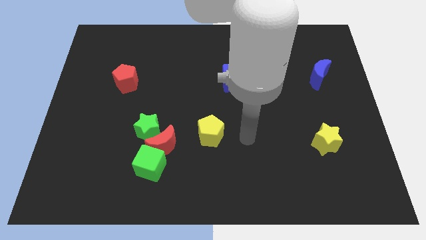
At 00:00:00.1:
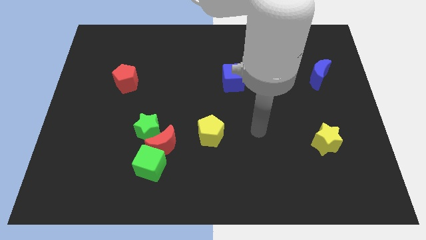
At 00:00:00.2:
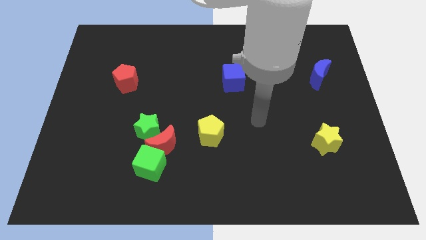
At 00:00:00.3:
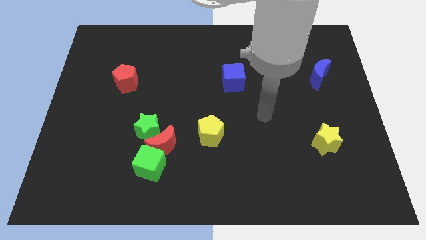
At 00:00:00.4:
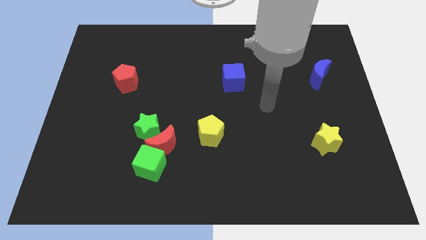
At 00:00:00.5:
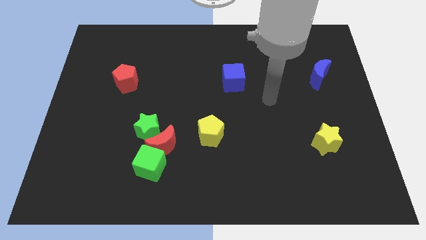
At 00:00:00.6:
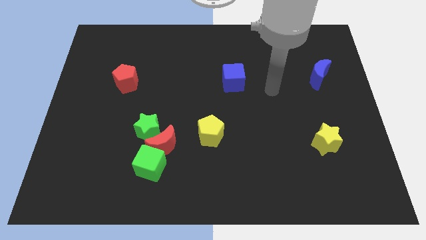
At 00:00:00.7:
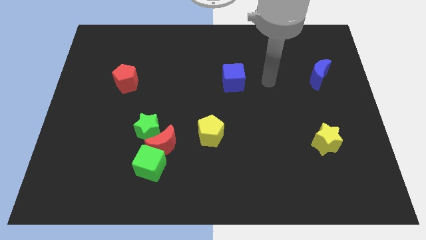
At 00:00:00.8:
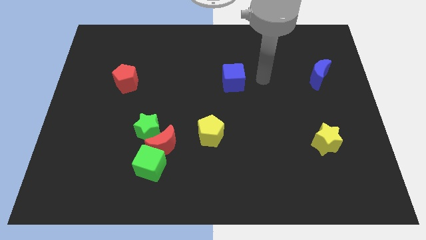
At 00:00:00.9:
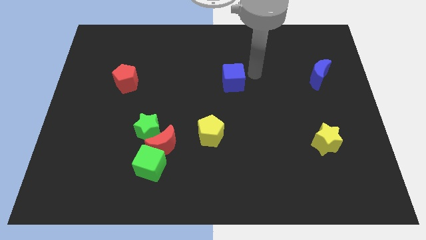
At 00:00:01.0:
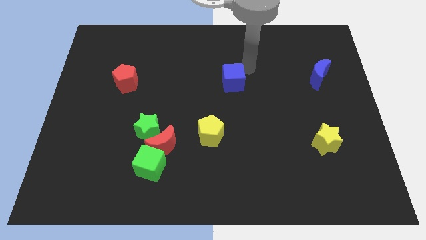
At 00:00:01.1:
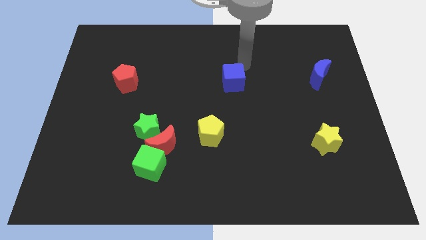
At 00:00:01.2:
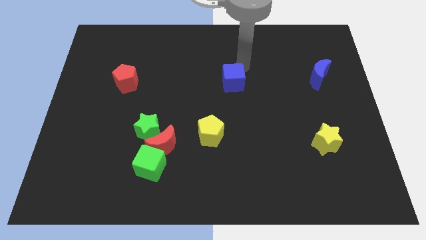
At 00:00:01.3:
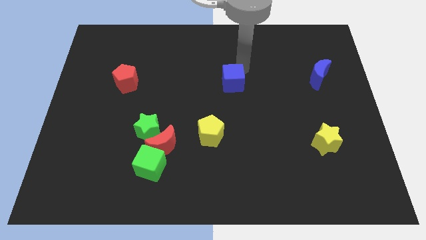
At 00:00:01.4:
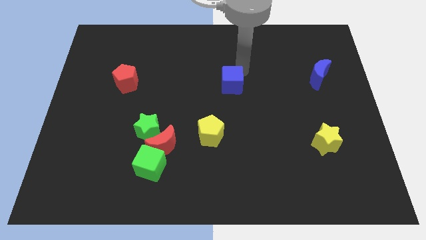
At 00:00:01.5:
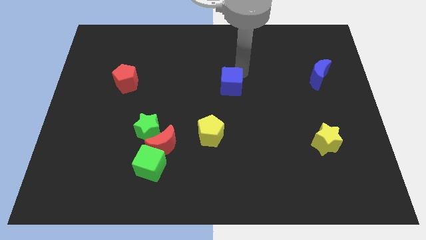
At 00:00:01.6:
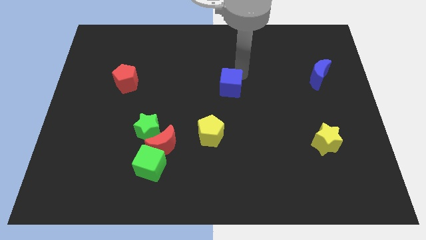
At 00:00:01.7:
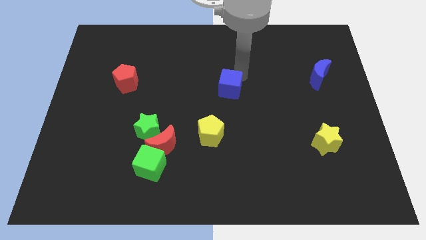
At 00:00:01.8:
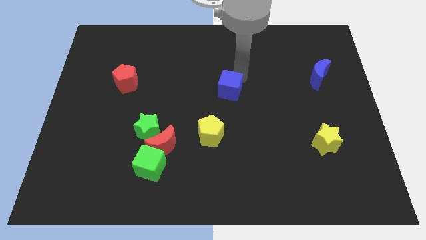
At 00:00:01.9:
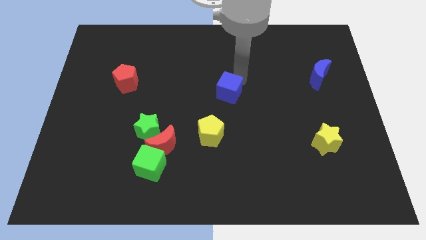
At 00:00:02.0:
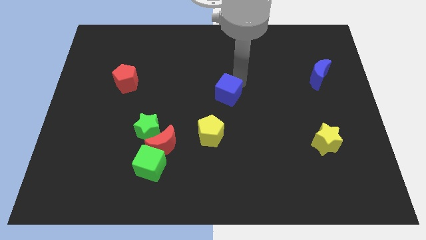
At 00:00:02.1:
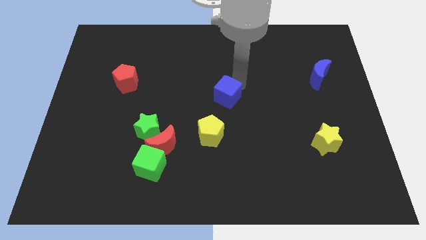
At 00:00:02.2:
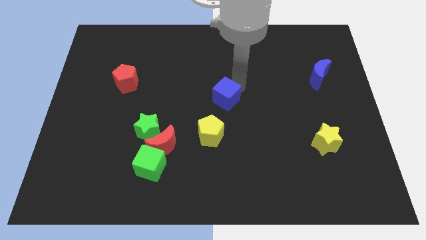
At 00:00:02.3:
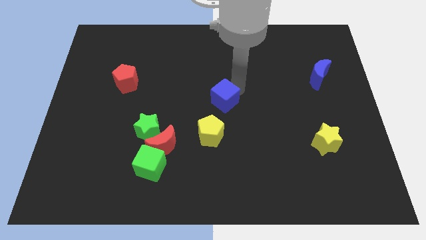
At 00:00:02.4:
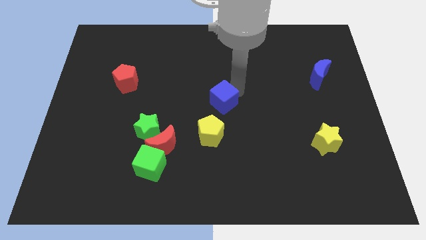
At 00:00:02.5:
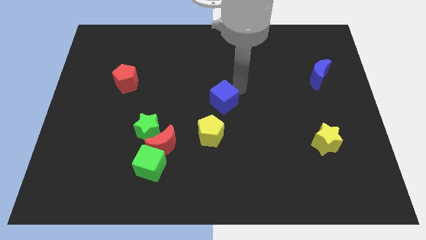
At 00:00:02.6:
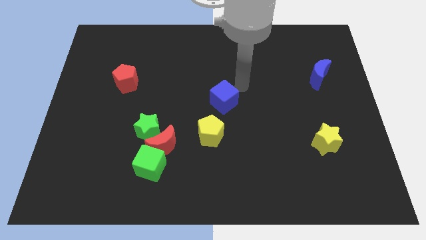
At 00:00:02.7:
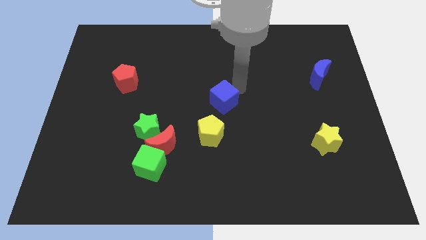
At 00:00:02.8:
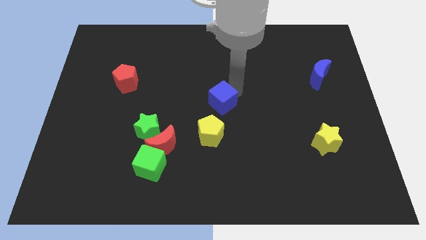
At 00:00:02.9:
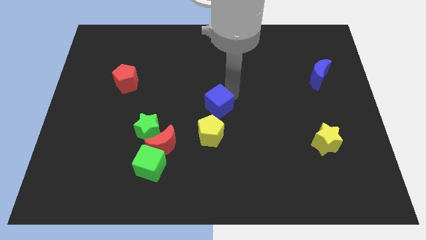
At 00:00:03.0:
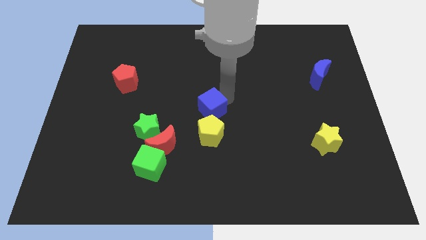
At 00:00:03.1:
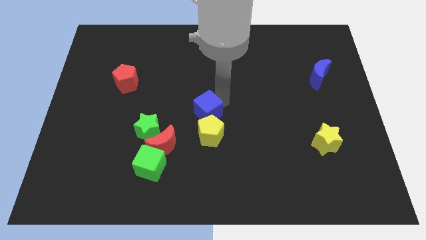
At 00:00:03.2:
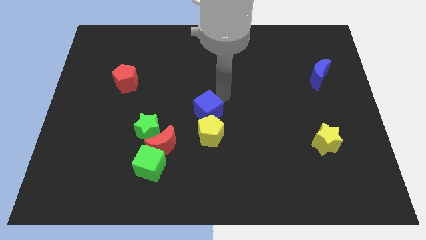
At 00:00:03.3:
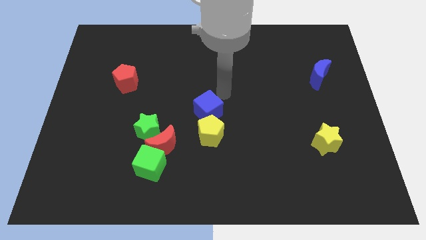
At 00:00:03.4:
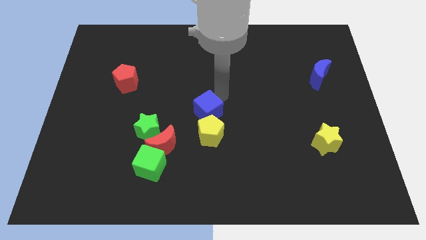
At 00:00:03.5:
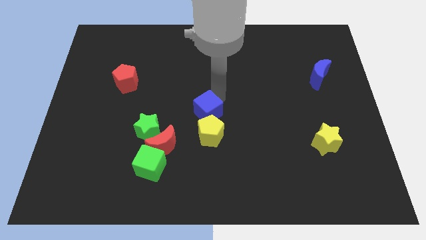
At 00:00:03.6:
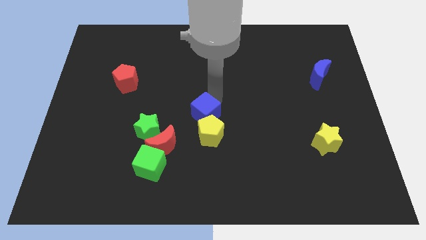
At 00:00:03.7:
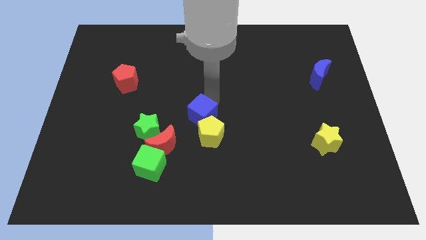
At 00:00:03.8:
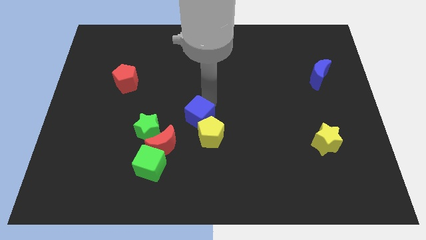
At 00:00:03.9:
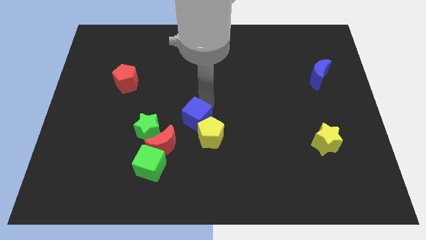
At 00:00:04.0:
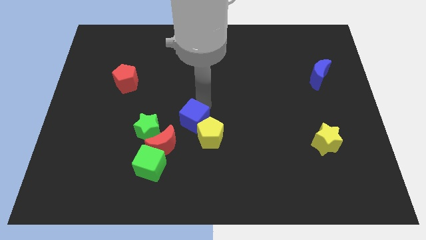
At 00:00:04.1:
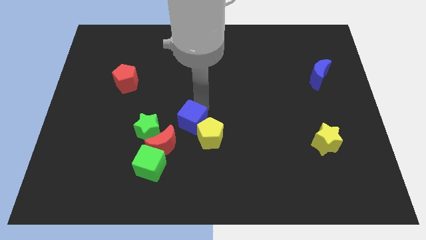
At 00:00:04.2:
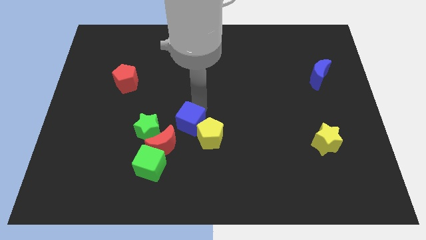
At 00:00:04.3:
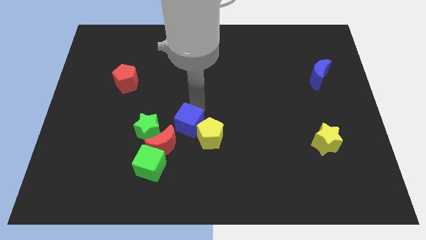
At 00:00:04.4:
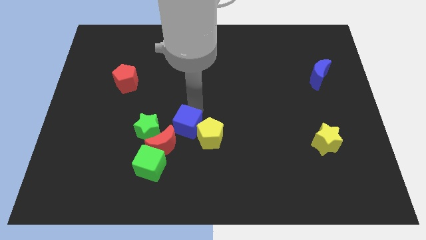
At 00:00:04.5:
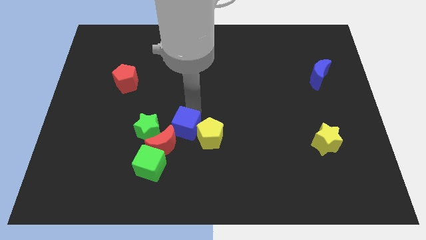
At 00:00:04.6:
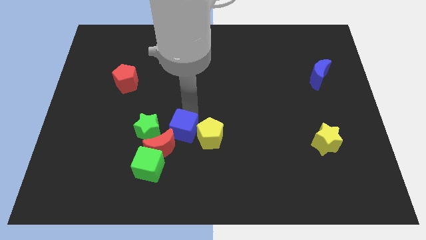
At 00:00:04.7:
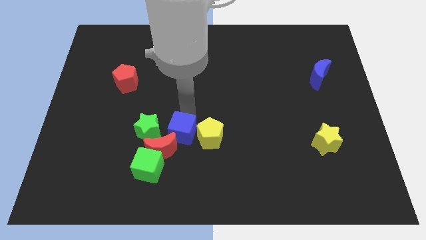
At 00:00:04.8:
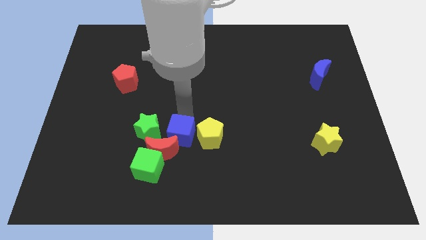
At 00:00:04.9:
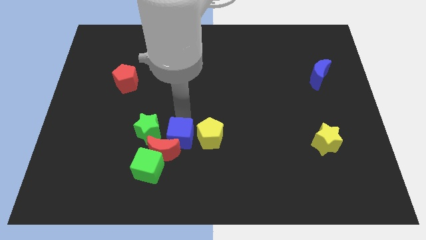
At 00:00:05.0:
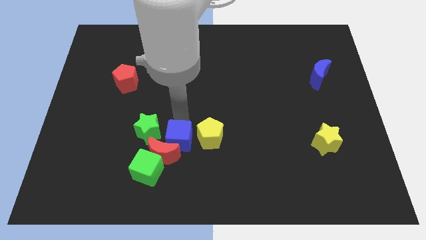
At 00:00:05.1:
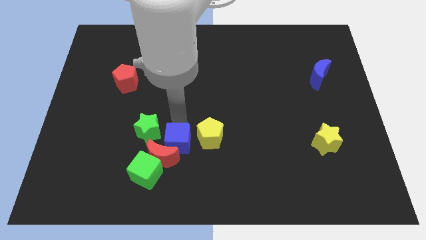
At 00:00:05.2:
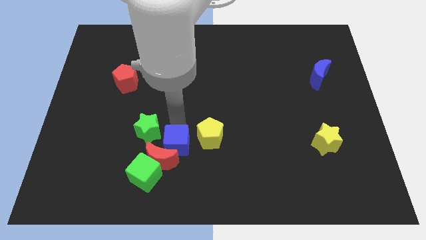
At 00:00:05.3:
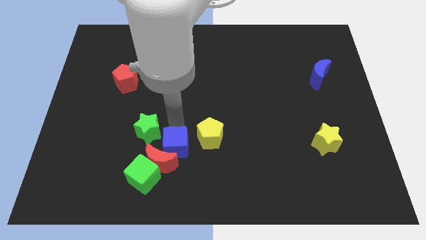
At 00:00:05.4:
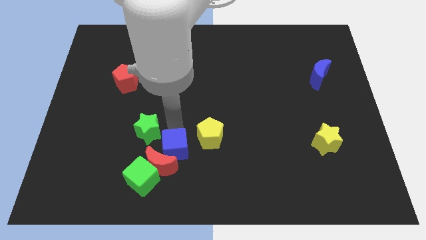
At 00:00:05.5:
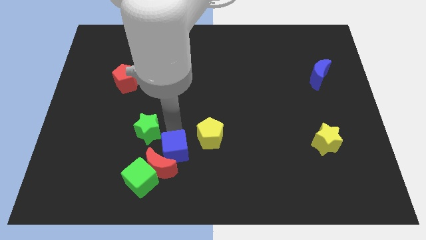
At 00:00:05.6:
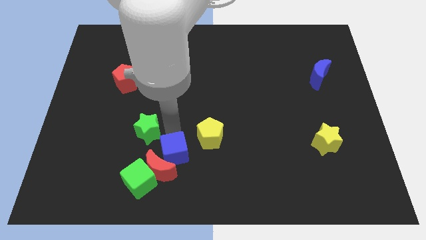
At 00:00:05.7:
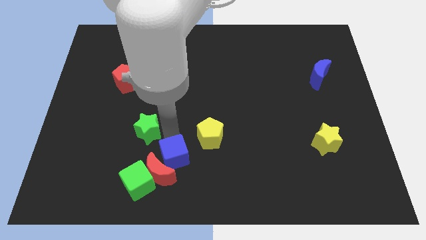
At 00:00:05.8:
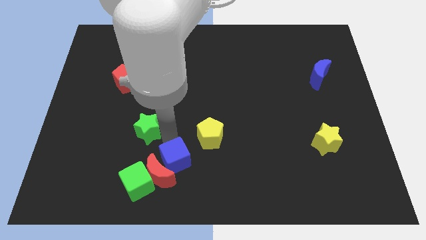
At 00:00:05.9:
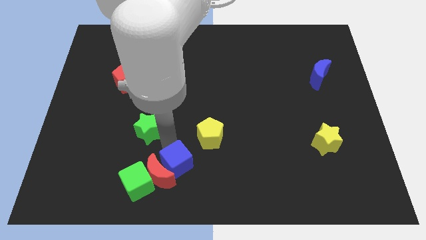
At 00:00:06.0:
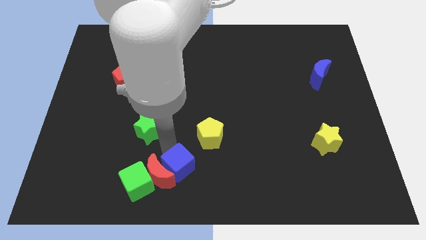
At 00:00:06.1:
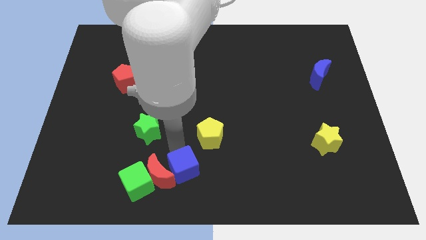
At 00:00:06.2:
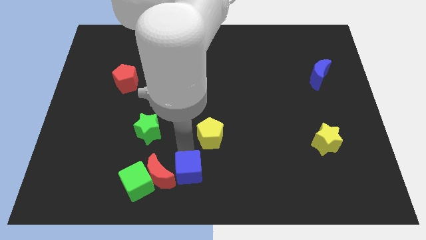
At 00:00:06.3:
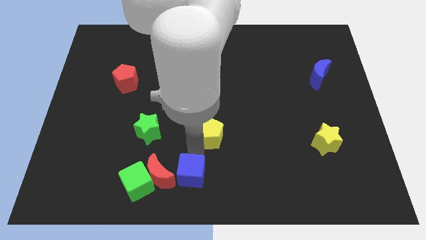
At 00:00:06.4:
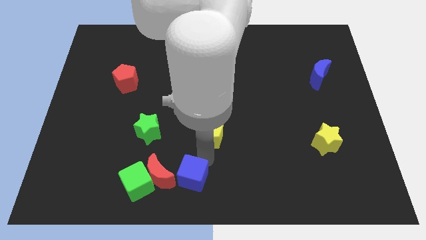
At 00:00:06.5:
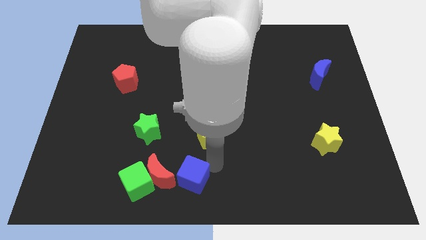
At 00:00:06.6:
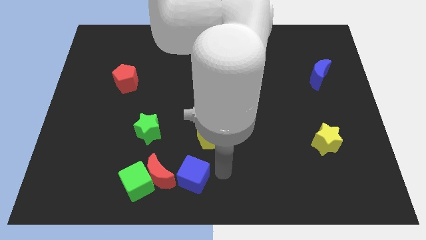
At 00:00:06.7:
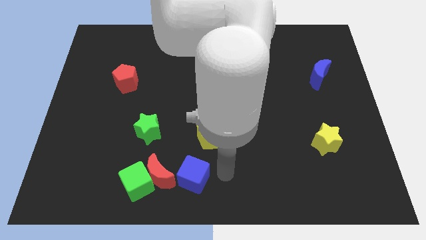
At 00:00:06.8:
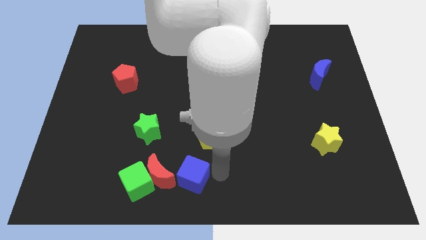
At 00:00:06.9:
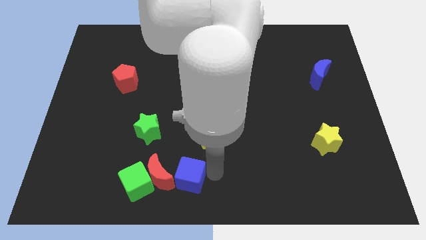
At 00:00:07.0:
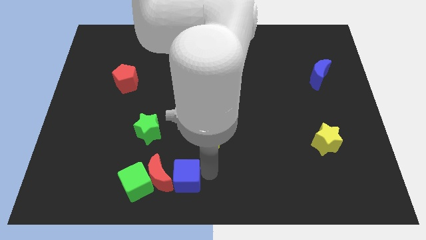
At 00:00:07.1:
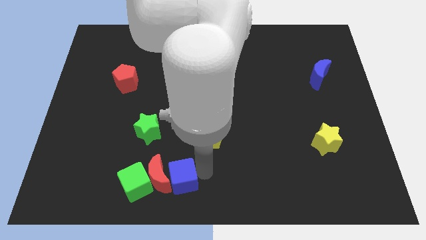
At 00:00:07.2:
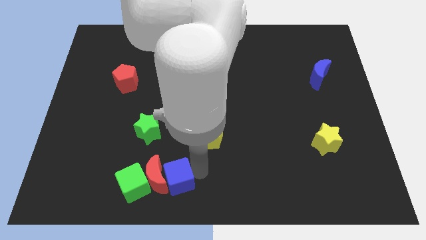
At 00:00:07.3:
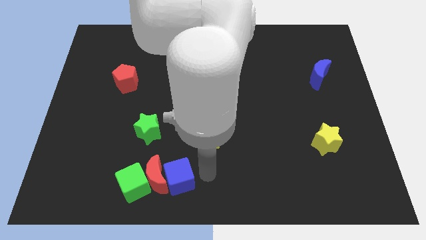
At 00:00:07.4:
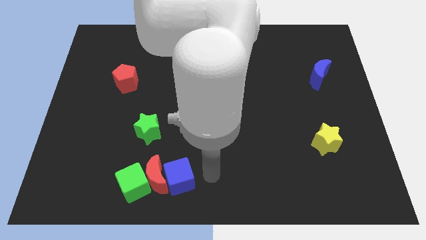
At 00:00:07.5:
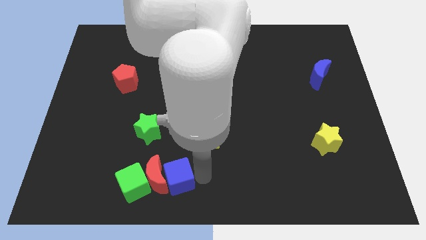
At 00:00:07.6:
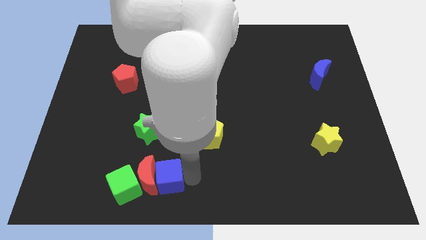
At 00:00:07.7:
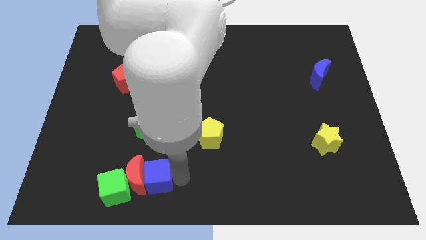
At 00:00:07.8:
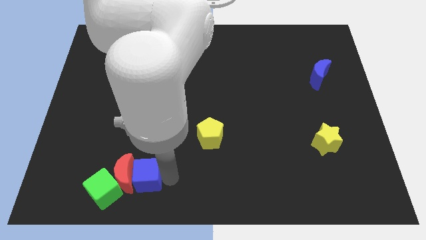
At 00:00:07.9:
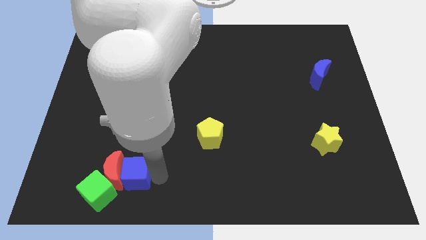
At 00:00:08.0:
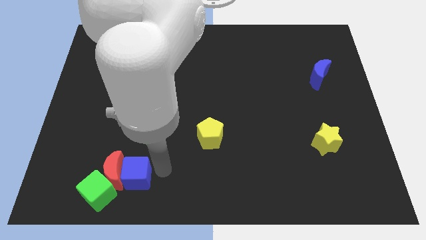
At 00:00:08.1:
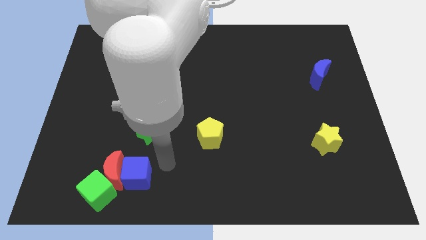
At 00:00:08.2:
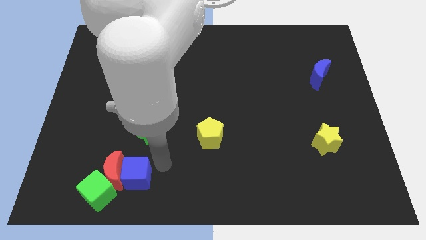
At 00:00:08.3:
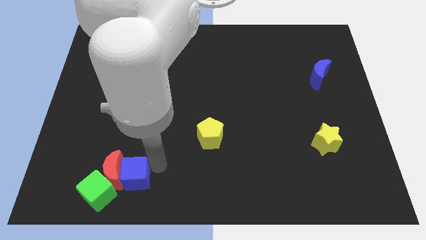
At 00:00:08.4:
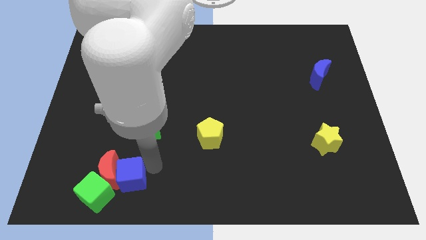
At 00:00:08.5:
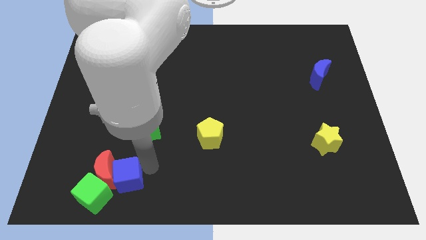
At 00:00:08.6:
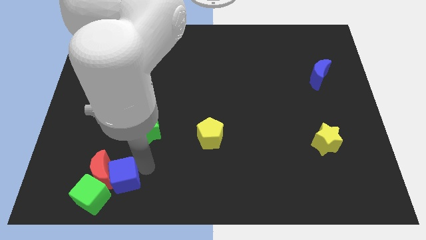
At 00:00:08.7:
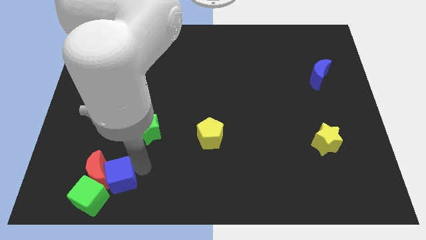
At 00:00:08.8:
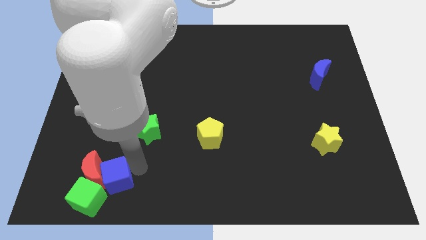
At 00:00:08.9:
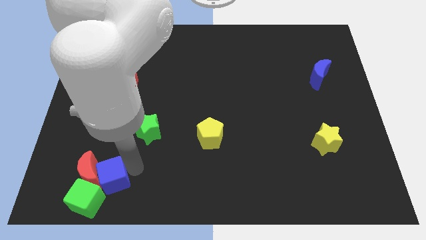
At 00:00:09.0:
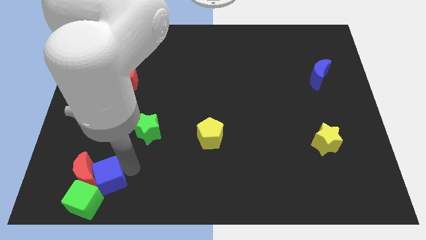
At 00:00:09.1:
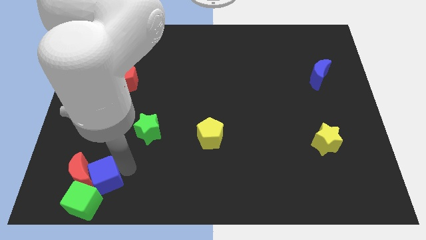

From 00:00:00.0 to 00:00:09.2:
slide the blue cube to the green cube
